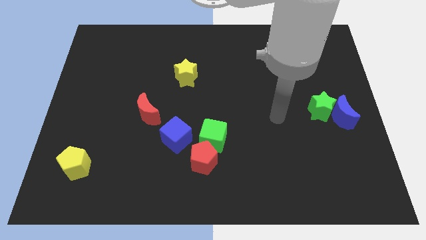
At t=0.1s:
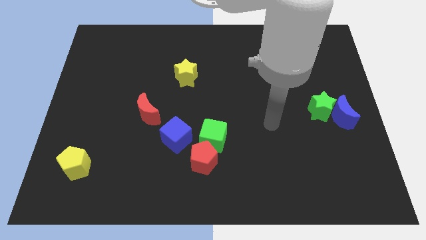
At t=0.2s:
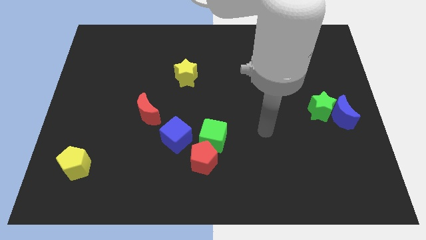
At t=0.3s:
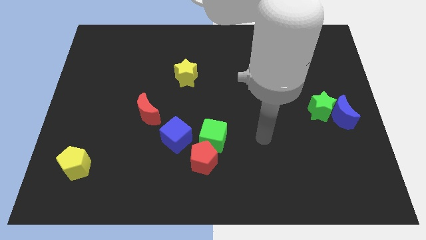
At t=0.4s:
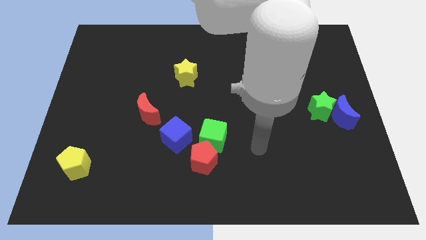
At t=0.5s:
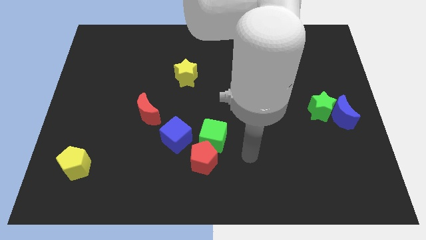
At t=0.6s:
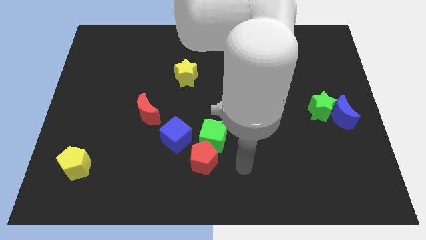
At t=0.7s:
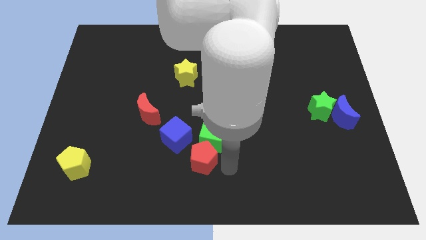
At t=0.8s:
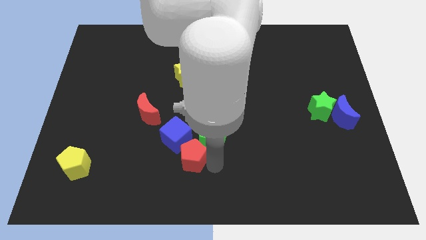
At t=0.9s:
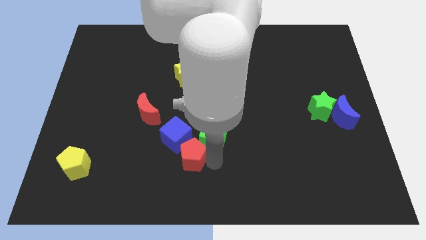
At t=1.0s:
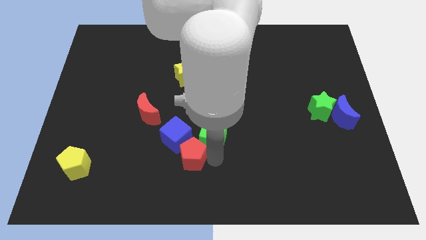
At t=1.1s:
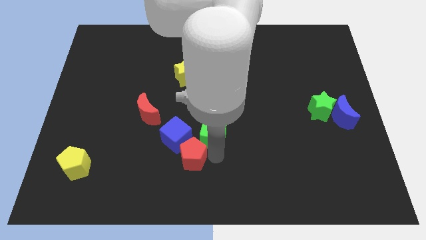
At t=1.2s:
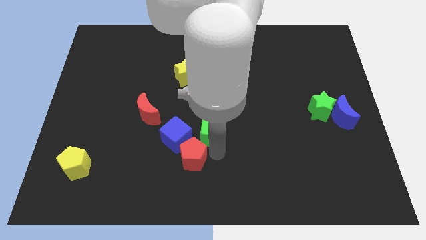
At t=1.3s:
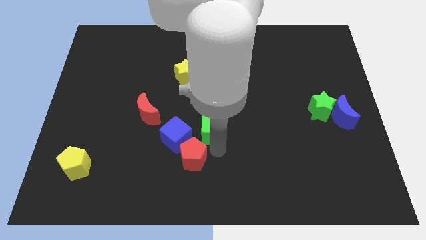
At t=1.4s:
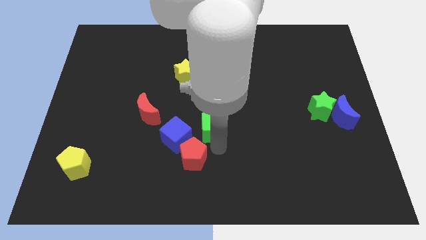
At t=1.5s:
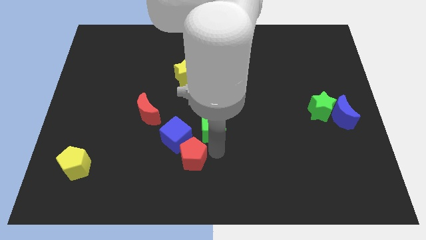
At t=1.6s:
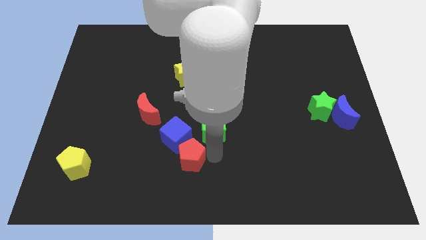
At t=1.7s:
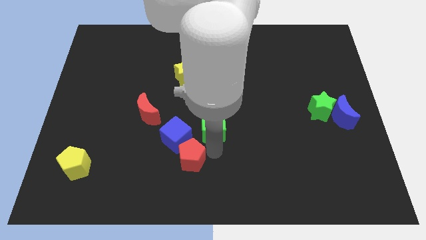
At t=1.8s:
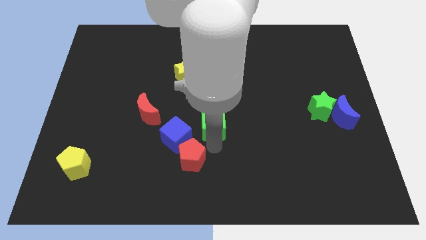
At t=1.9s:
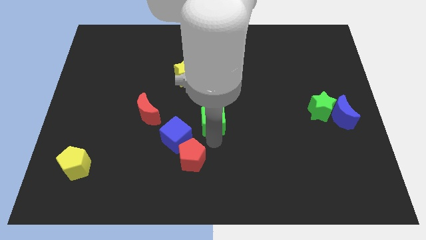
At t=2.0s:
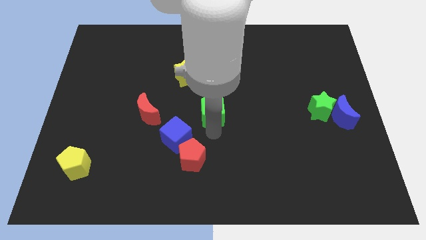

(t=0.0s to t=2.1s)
move the green cube a little bit upwards

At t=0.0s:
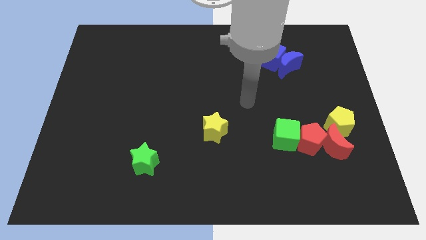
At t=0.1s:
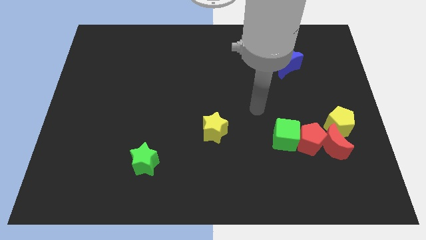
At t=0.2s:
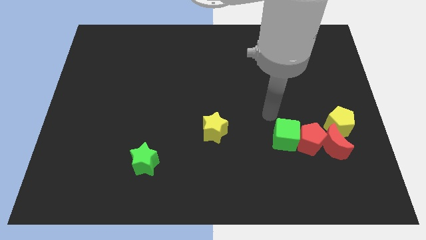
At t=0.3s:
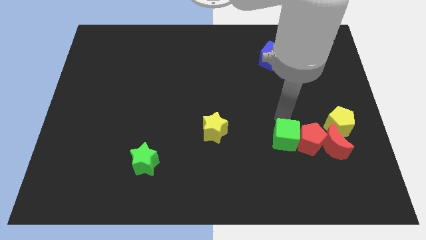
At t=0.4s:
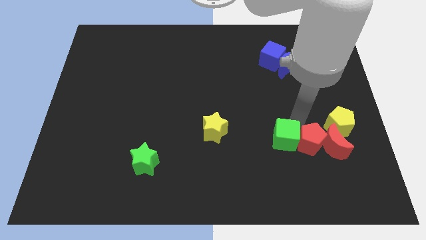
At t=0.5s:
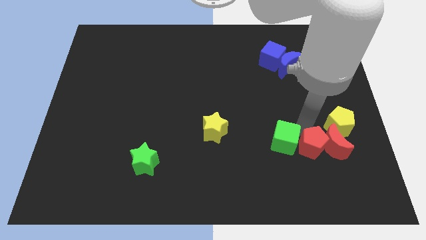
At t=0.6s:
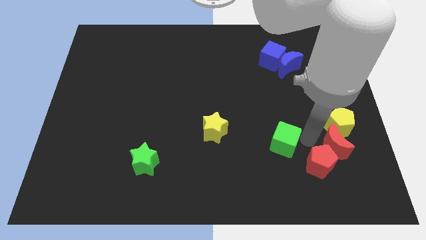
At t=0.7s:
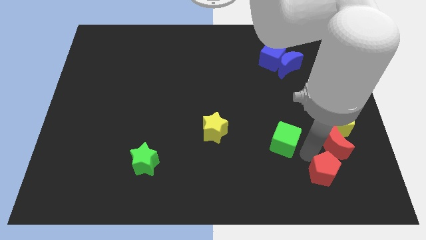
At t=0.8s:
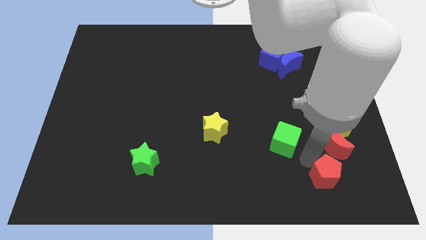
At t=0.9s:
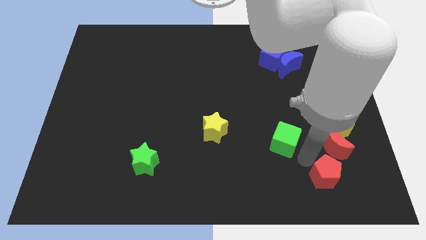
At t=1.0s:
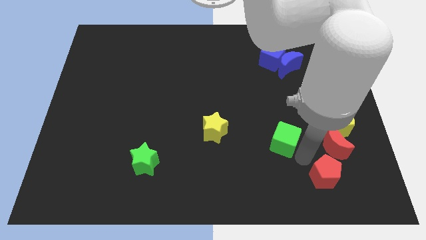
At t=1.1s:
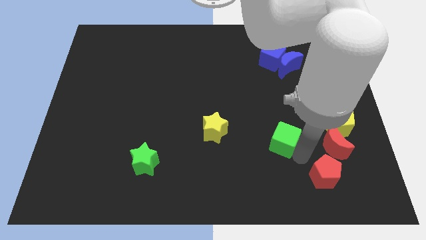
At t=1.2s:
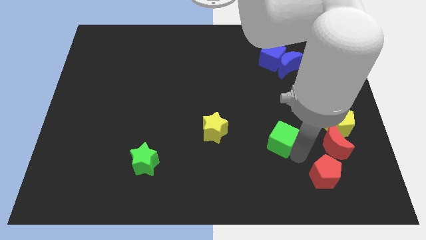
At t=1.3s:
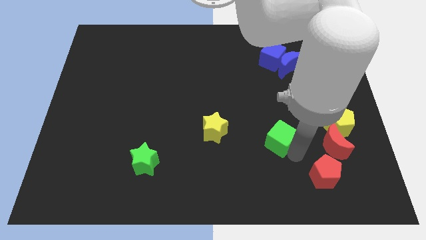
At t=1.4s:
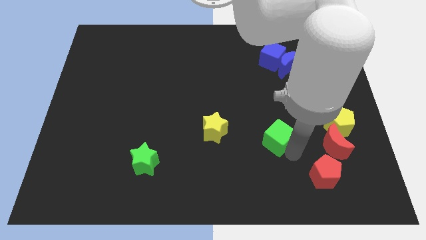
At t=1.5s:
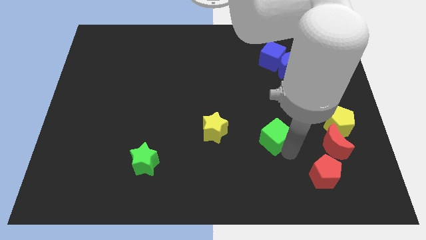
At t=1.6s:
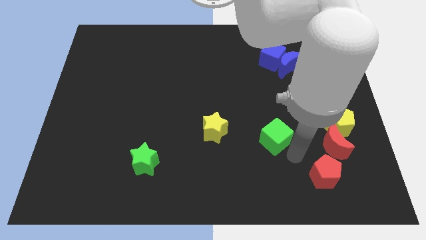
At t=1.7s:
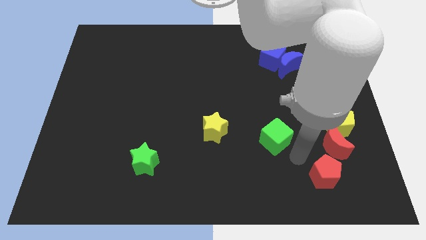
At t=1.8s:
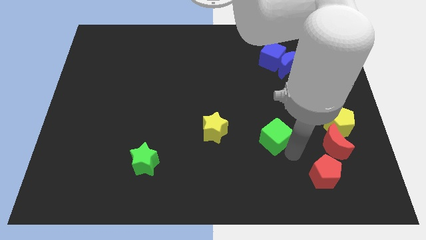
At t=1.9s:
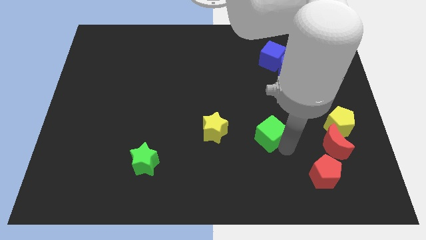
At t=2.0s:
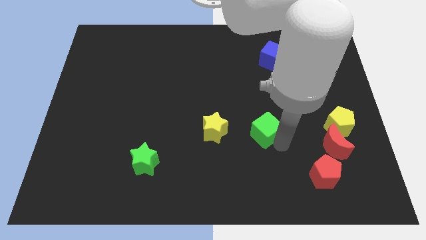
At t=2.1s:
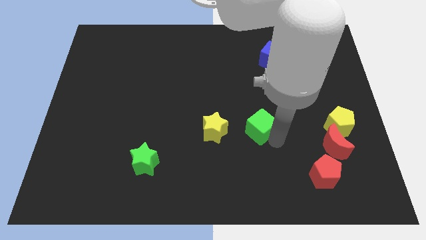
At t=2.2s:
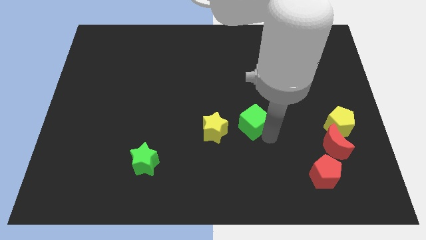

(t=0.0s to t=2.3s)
slightly push the green cube up and left

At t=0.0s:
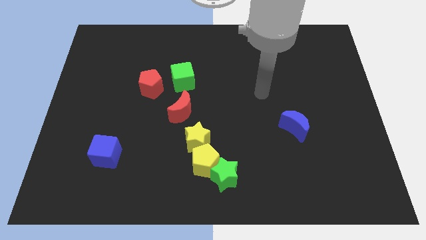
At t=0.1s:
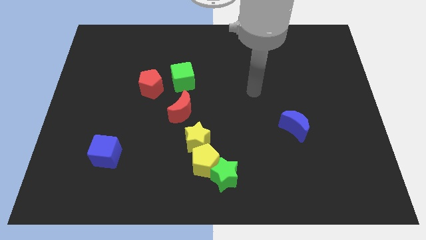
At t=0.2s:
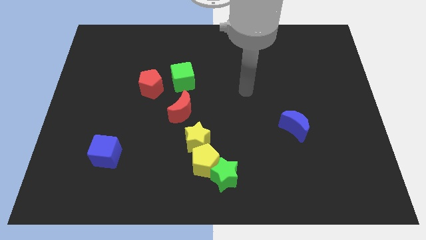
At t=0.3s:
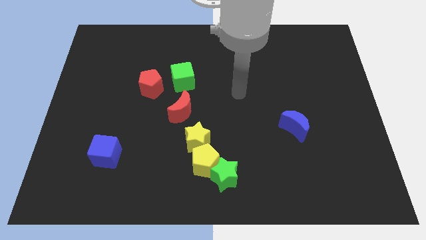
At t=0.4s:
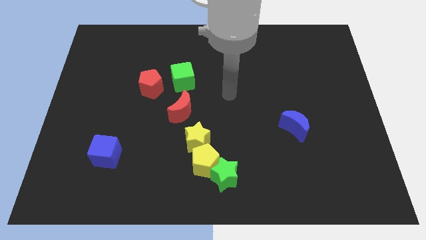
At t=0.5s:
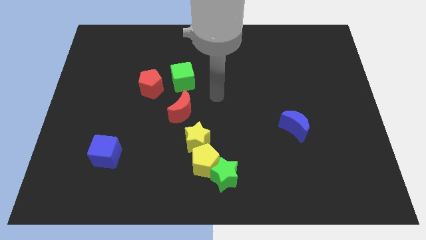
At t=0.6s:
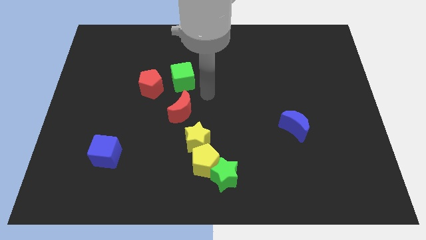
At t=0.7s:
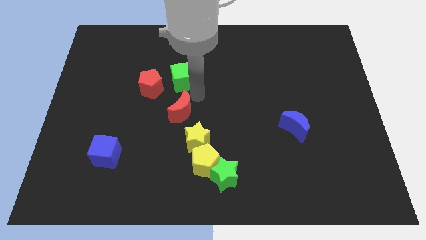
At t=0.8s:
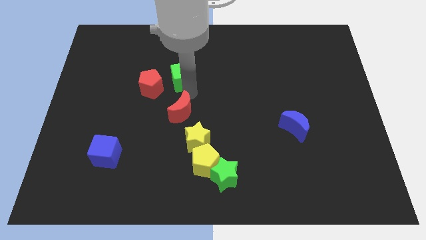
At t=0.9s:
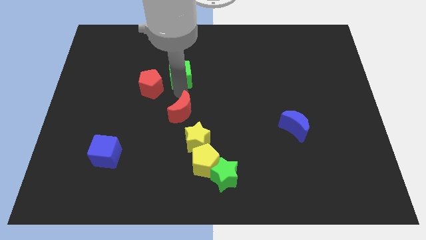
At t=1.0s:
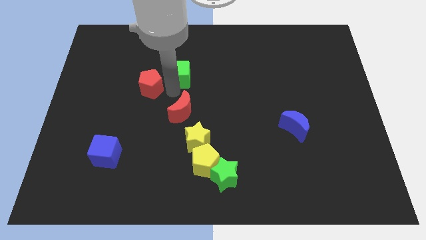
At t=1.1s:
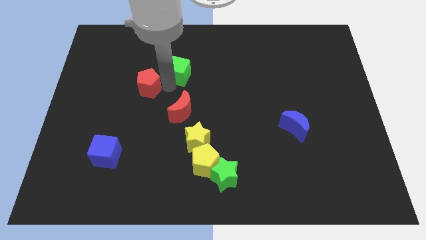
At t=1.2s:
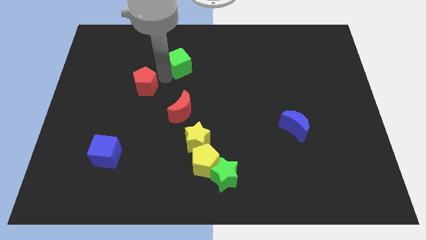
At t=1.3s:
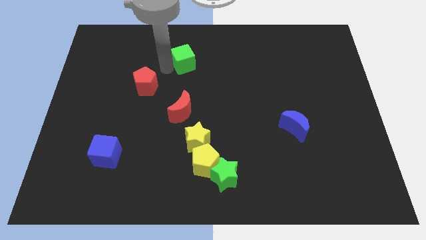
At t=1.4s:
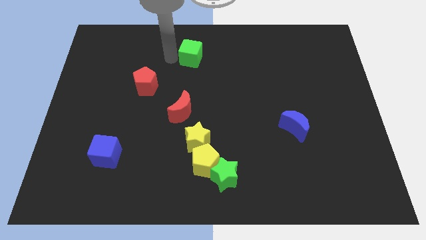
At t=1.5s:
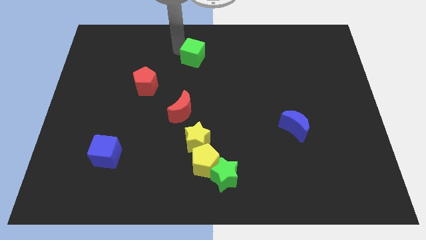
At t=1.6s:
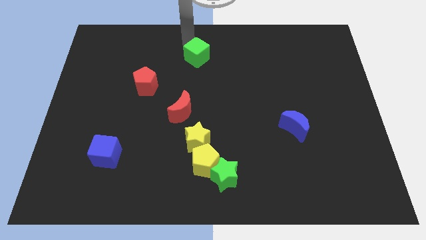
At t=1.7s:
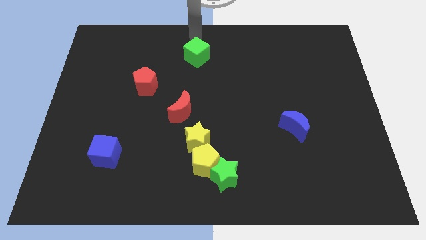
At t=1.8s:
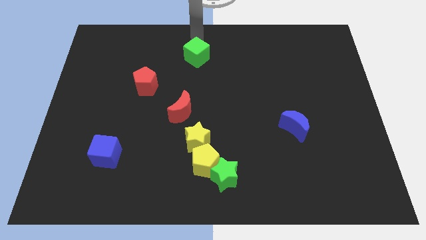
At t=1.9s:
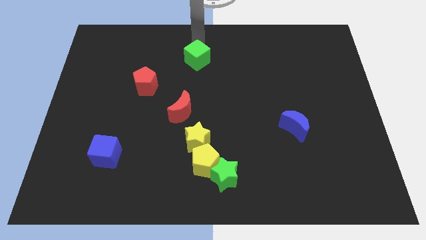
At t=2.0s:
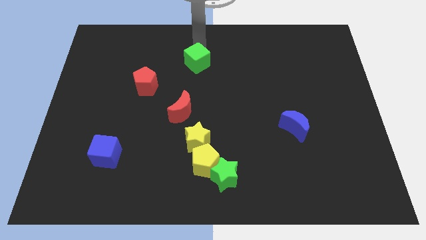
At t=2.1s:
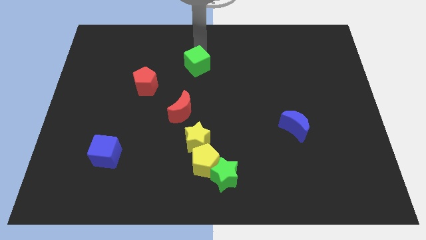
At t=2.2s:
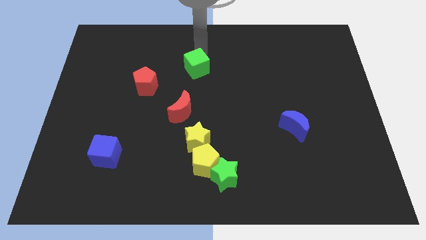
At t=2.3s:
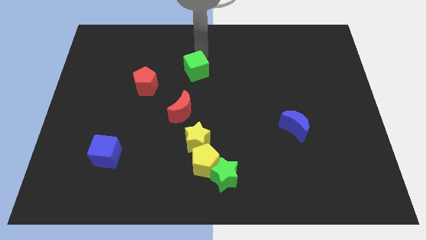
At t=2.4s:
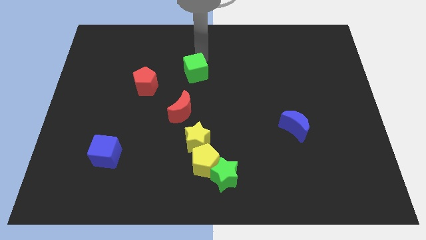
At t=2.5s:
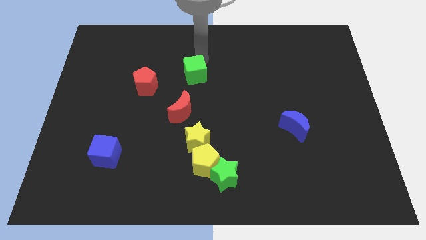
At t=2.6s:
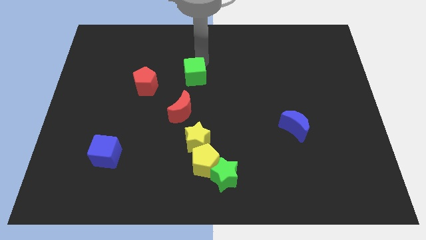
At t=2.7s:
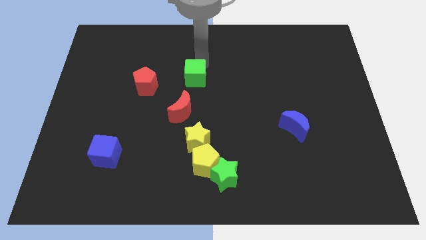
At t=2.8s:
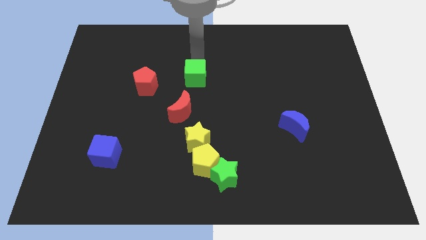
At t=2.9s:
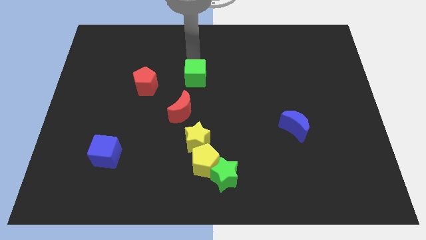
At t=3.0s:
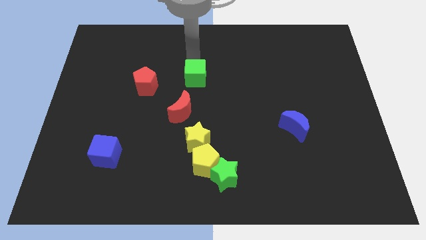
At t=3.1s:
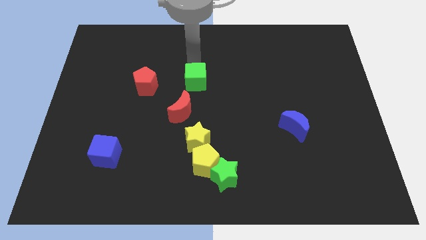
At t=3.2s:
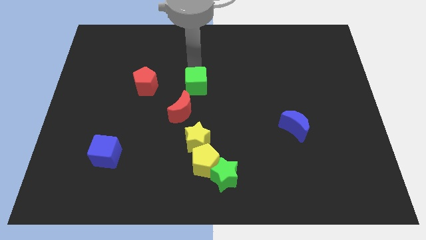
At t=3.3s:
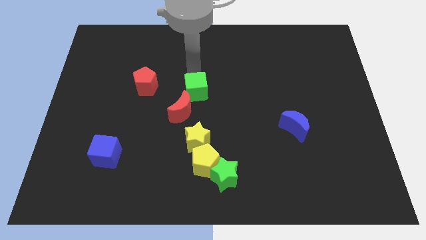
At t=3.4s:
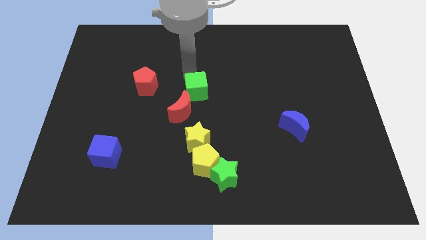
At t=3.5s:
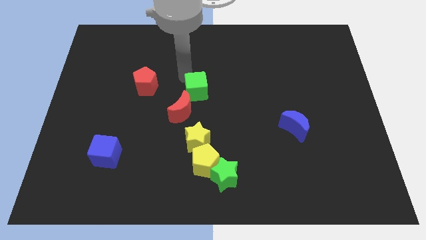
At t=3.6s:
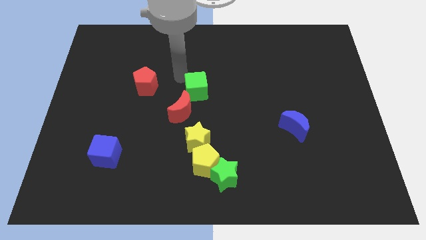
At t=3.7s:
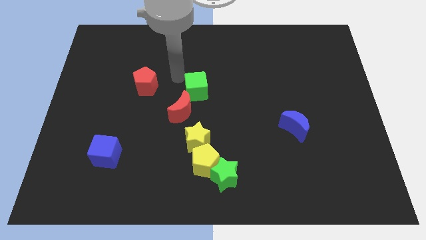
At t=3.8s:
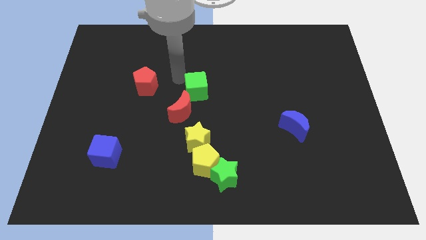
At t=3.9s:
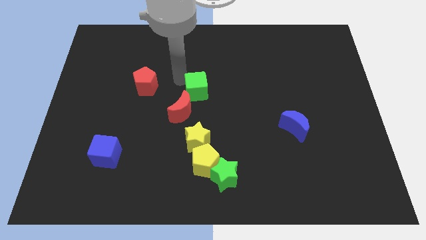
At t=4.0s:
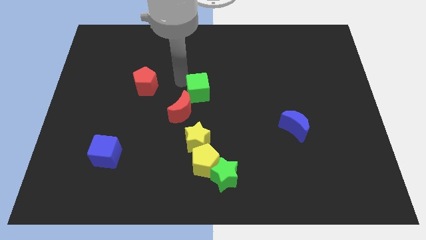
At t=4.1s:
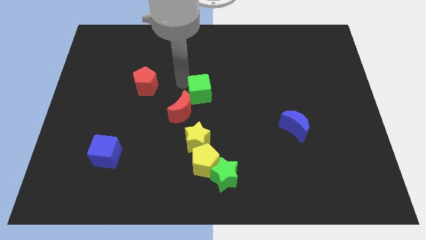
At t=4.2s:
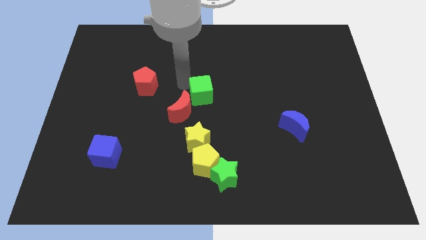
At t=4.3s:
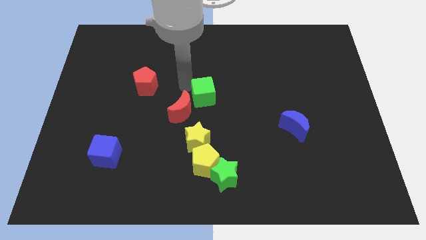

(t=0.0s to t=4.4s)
slightly move the green cube down and to the right
